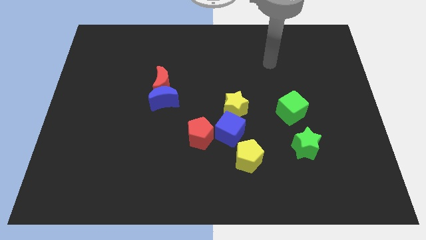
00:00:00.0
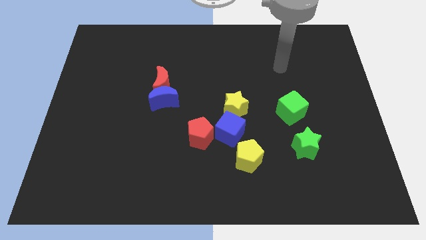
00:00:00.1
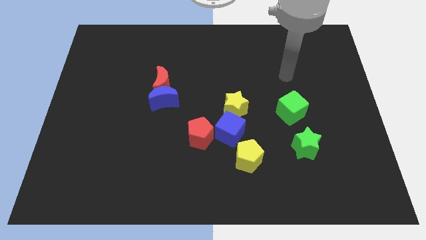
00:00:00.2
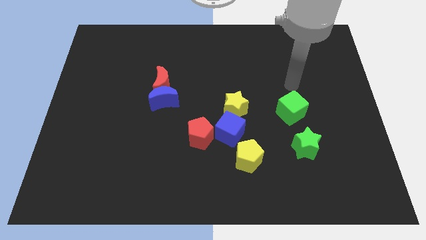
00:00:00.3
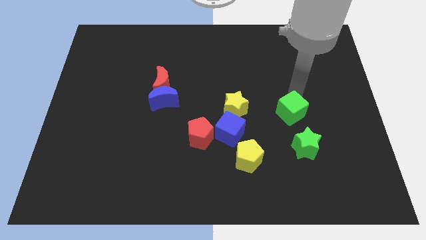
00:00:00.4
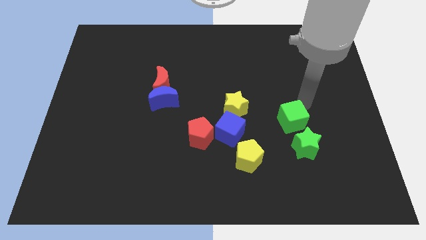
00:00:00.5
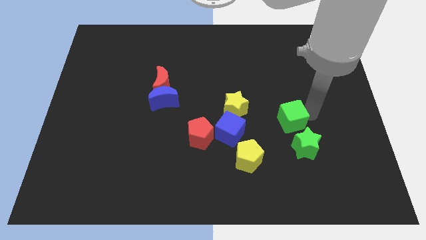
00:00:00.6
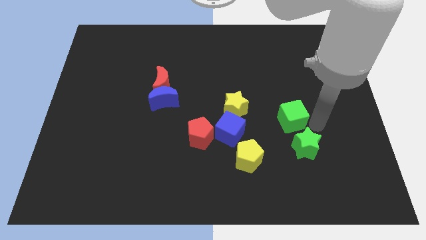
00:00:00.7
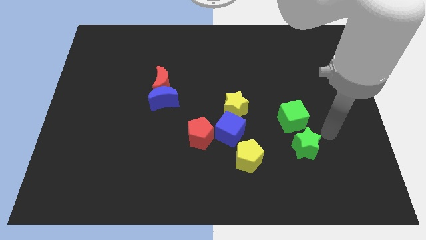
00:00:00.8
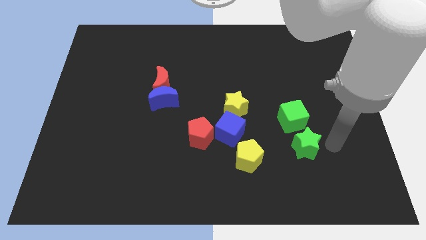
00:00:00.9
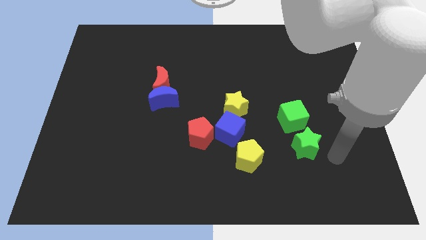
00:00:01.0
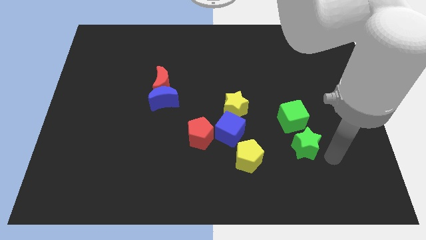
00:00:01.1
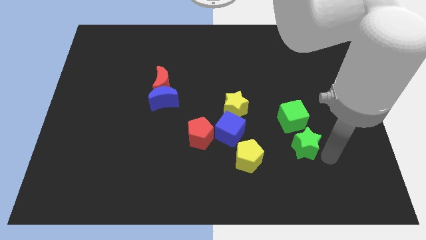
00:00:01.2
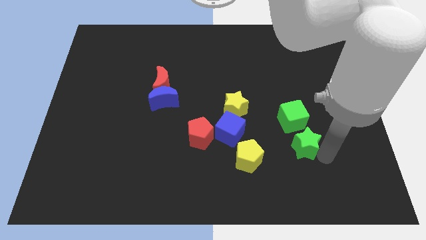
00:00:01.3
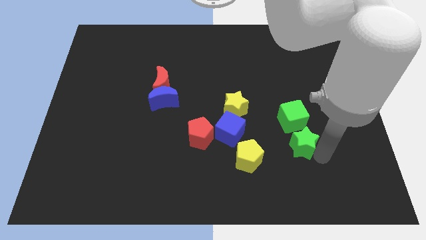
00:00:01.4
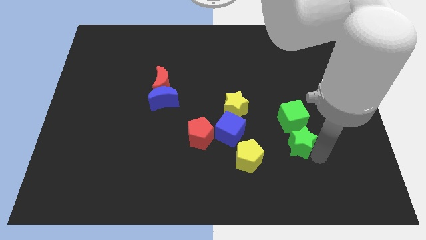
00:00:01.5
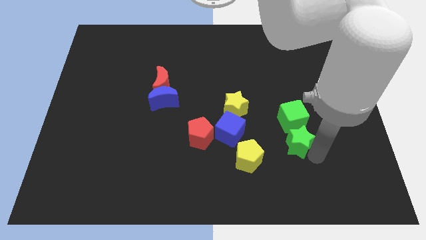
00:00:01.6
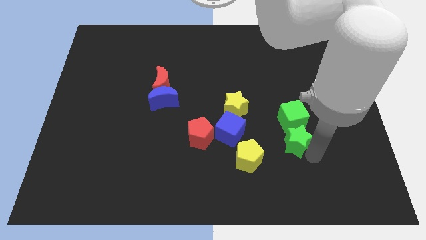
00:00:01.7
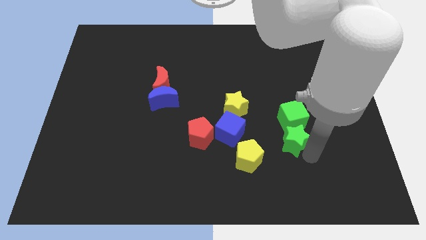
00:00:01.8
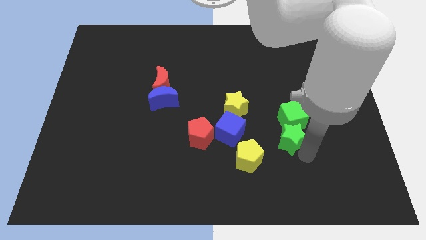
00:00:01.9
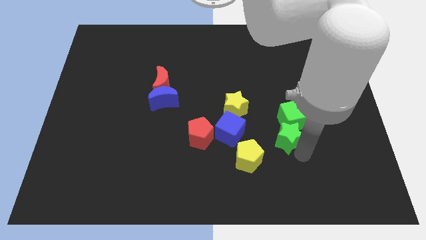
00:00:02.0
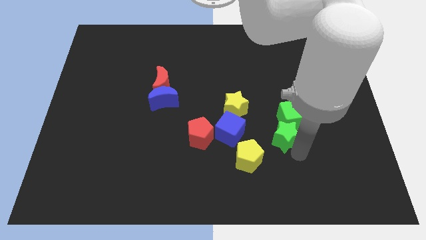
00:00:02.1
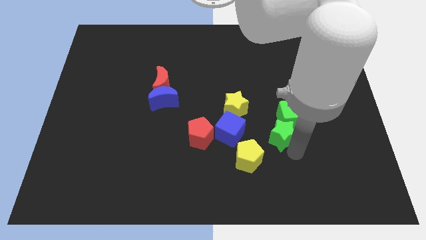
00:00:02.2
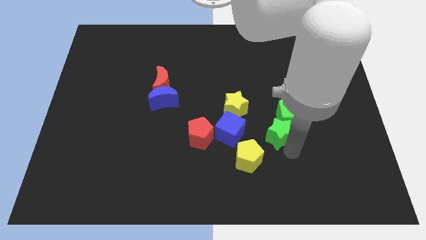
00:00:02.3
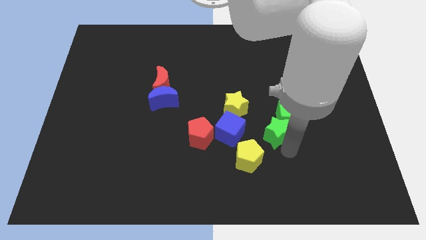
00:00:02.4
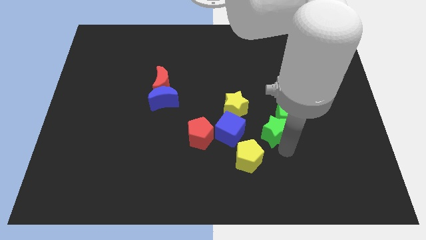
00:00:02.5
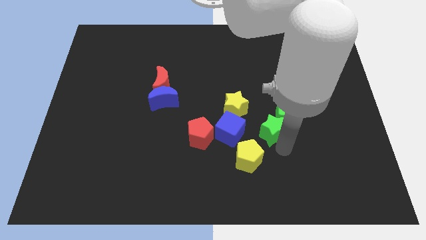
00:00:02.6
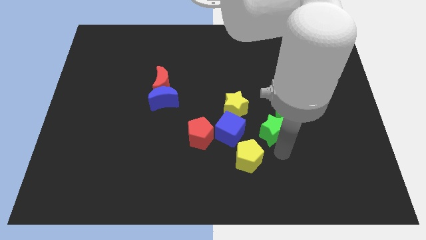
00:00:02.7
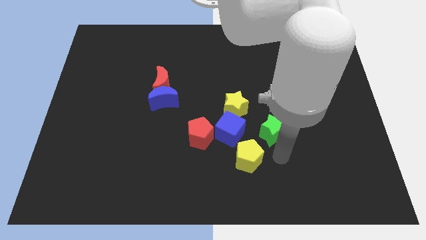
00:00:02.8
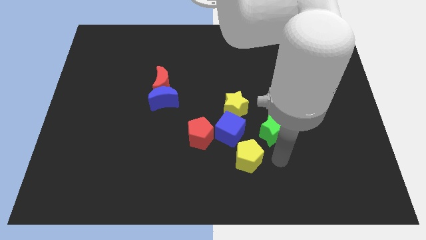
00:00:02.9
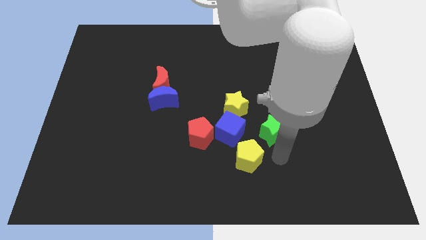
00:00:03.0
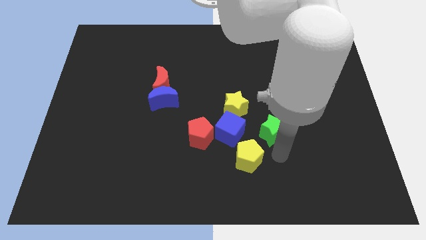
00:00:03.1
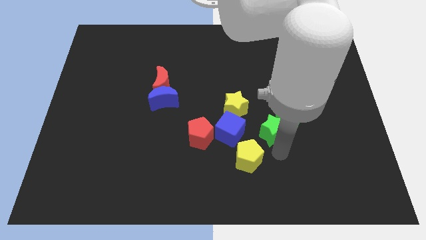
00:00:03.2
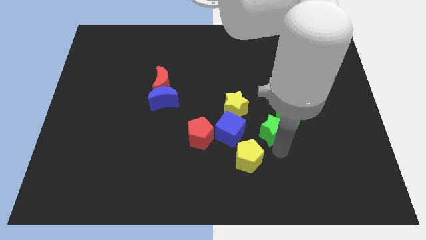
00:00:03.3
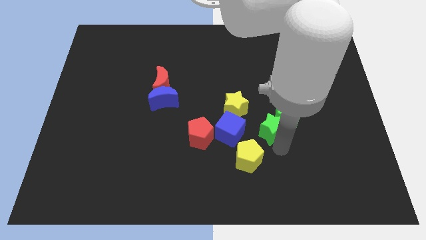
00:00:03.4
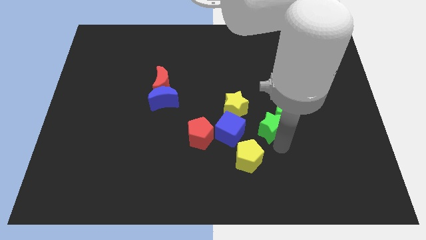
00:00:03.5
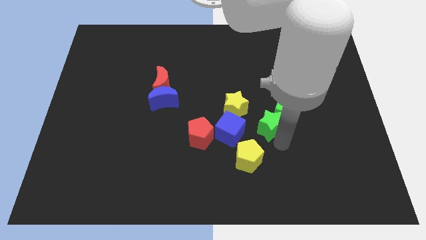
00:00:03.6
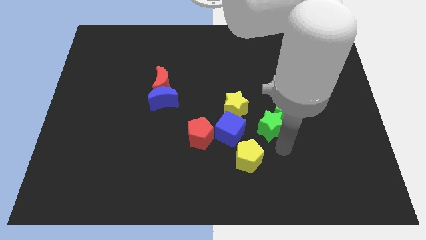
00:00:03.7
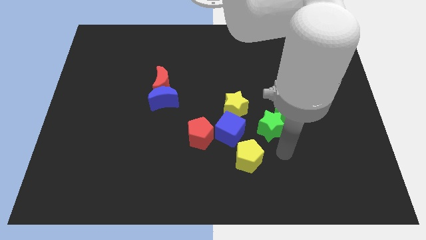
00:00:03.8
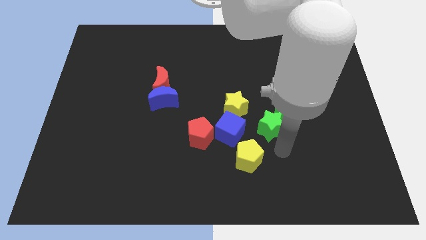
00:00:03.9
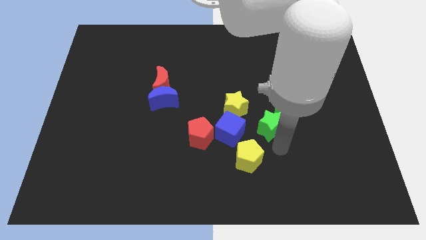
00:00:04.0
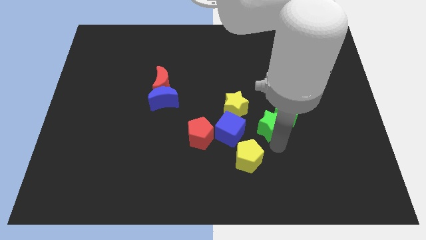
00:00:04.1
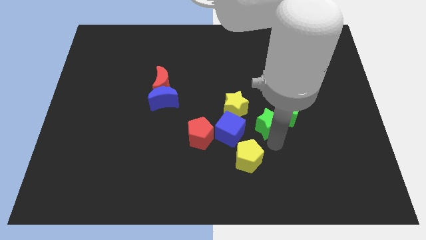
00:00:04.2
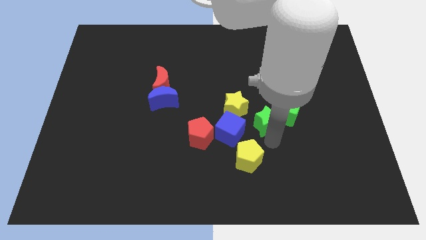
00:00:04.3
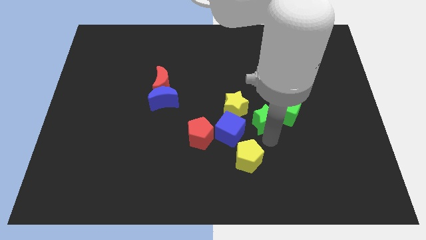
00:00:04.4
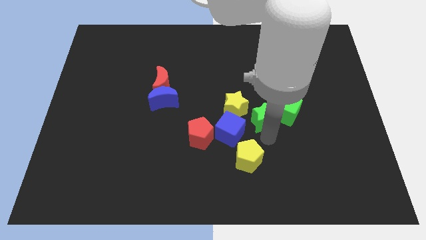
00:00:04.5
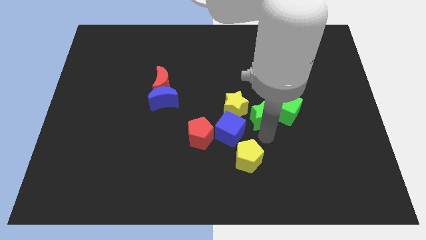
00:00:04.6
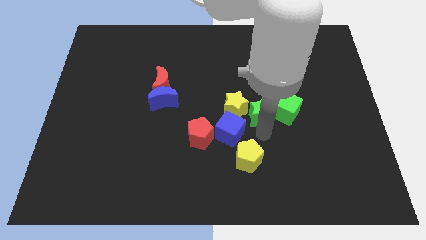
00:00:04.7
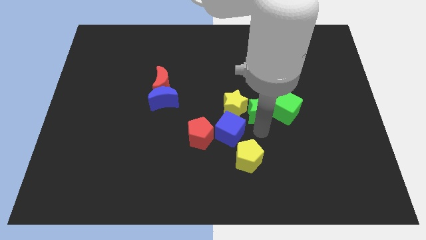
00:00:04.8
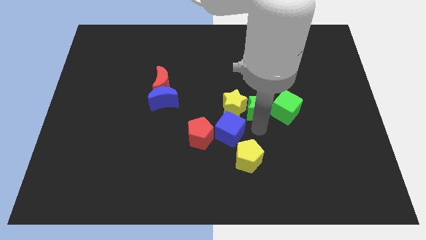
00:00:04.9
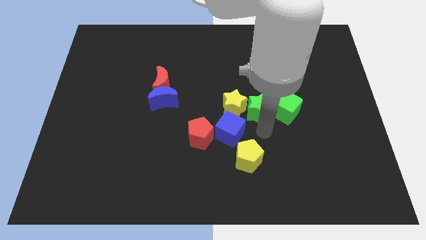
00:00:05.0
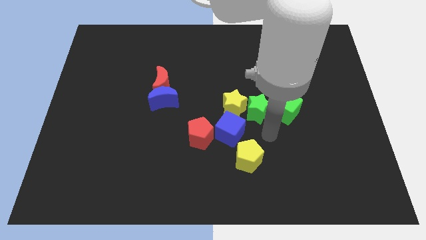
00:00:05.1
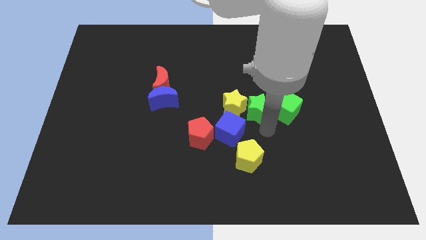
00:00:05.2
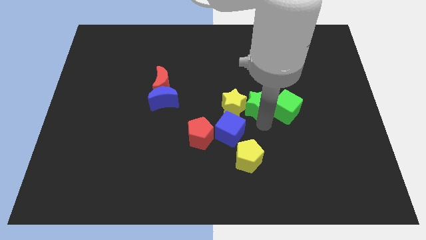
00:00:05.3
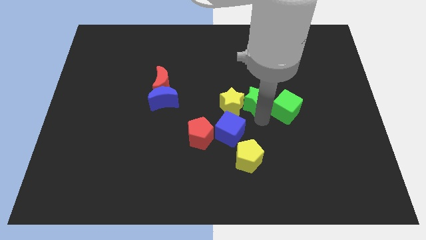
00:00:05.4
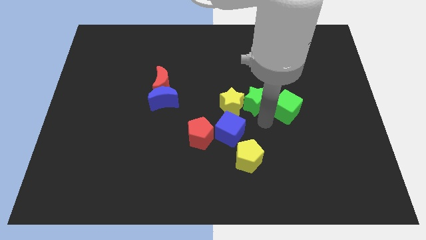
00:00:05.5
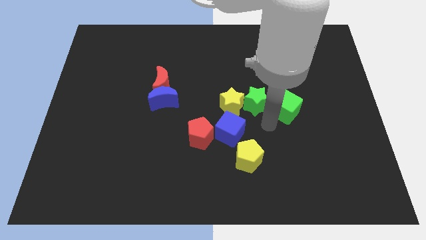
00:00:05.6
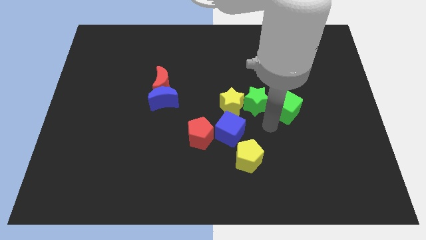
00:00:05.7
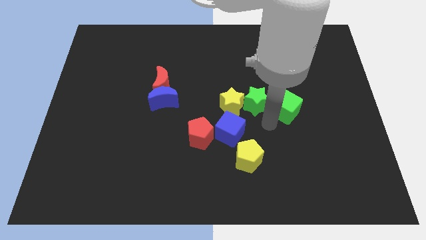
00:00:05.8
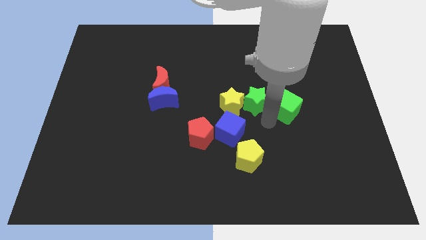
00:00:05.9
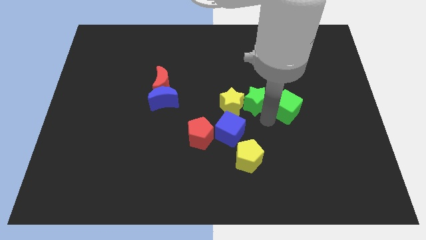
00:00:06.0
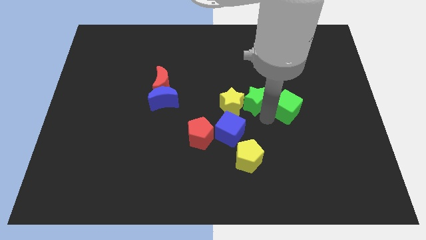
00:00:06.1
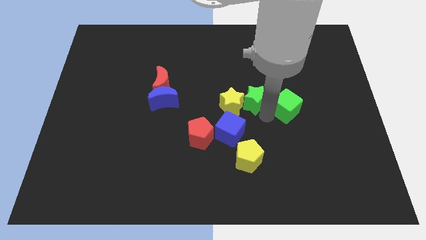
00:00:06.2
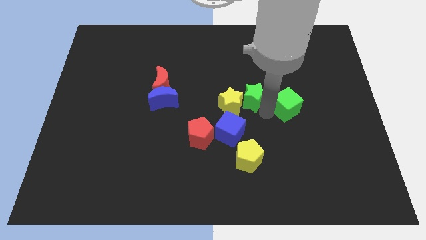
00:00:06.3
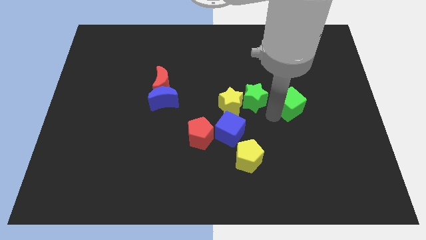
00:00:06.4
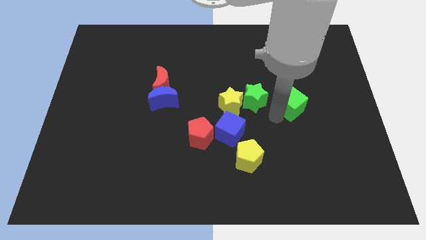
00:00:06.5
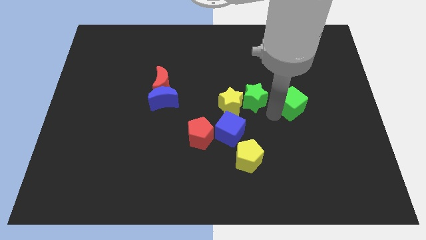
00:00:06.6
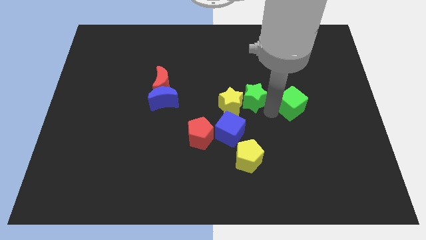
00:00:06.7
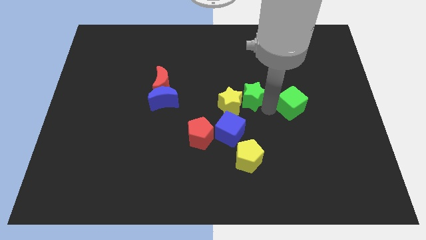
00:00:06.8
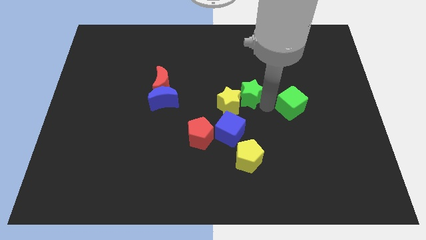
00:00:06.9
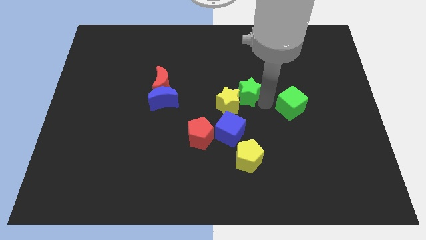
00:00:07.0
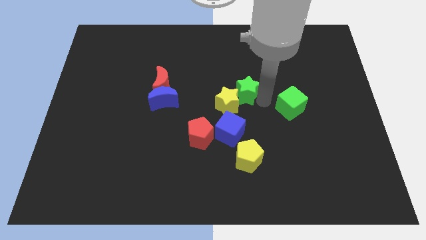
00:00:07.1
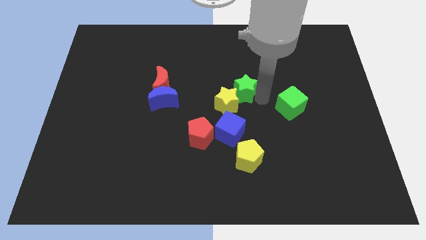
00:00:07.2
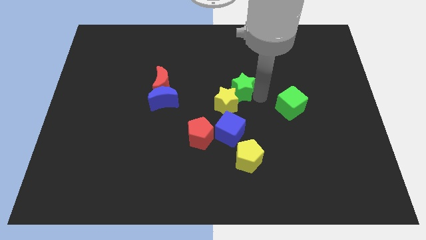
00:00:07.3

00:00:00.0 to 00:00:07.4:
slide the green star up and then left

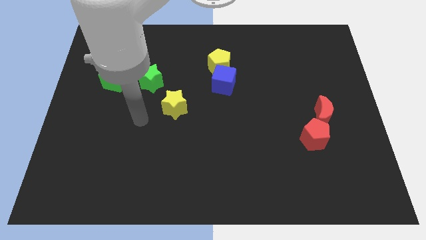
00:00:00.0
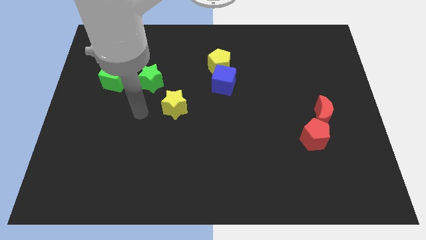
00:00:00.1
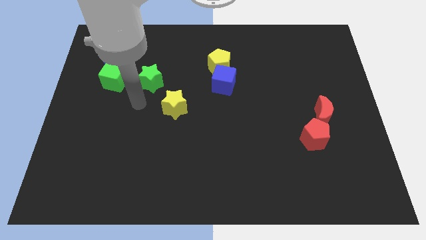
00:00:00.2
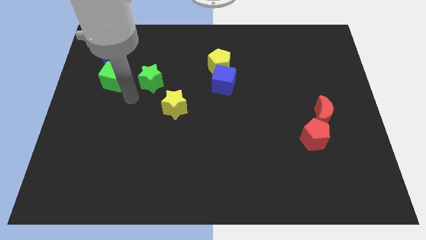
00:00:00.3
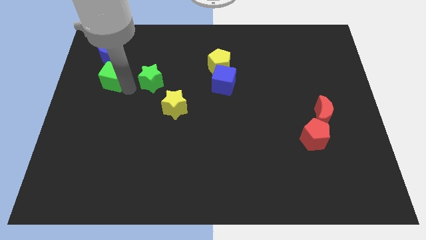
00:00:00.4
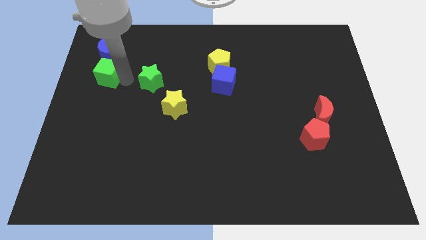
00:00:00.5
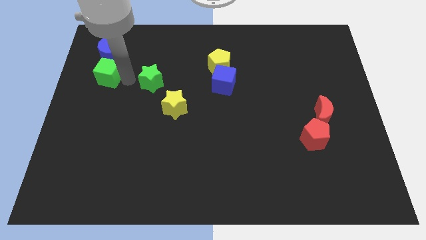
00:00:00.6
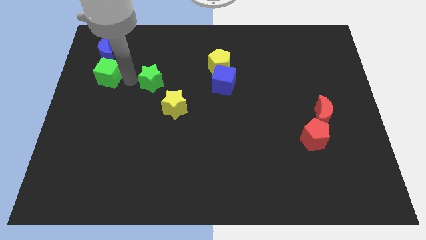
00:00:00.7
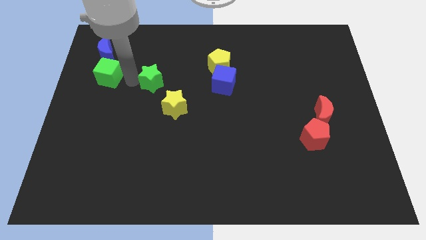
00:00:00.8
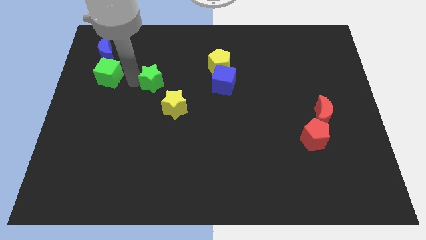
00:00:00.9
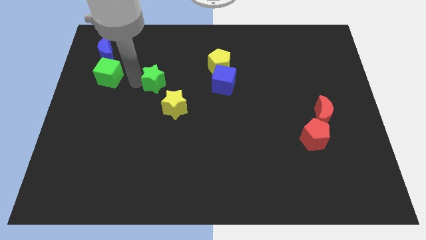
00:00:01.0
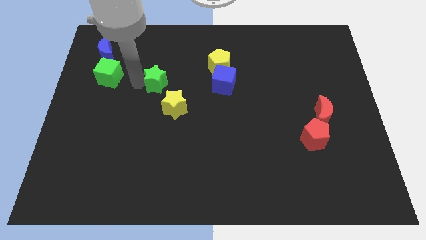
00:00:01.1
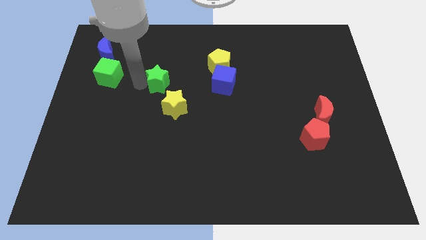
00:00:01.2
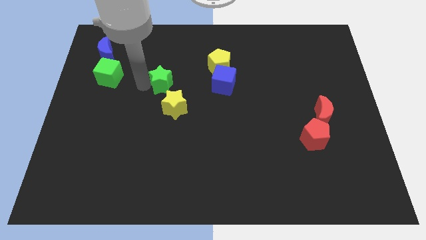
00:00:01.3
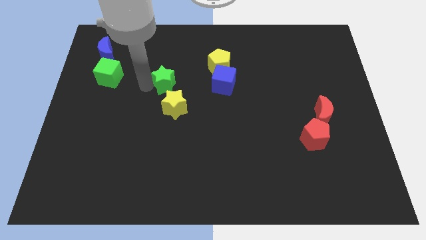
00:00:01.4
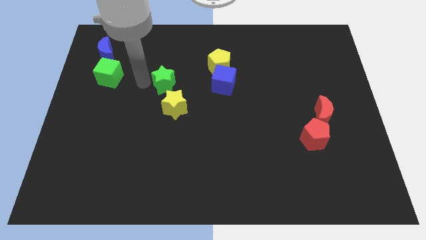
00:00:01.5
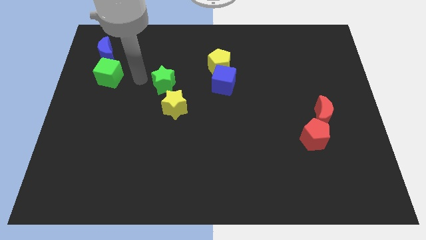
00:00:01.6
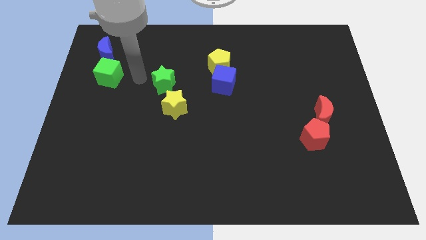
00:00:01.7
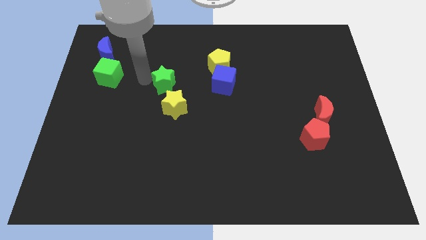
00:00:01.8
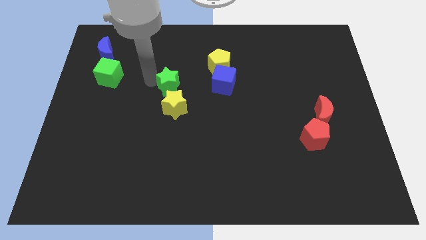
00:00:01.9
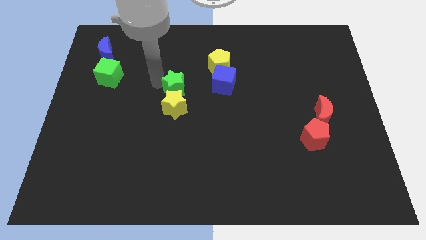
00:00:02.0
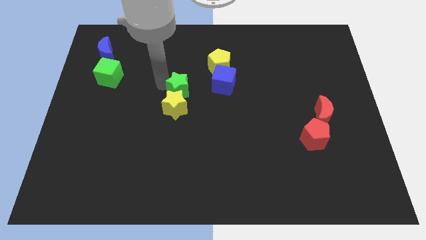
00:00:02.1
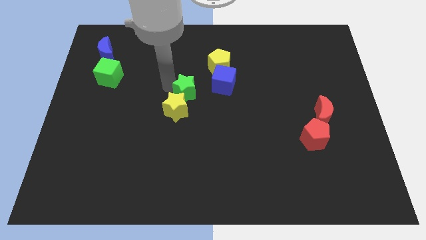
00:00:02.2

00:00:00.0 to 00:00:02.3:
slide the green star downwards and then to the right a little bit
